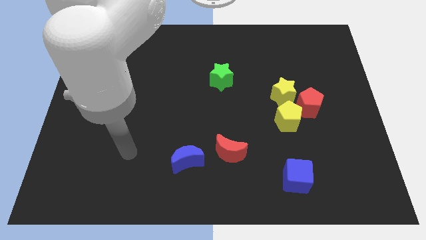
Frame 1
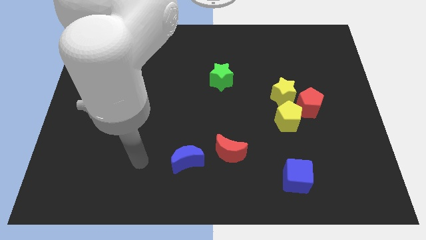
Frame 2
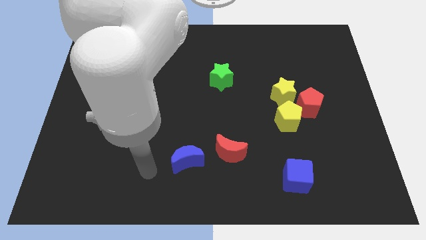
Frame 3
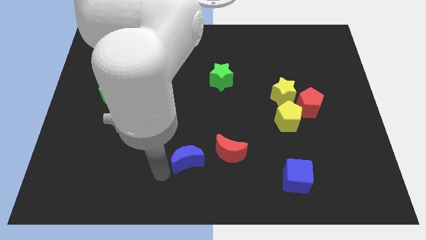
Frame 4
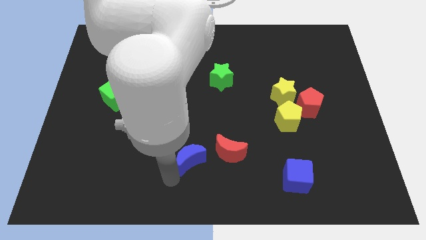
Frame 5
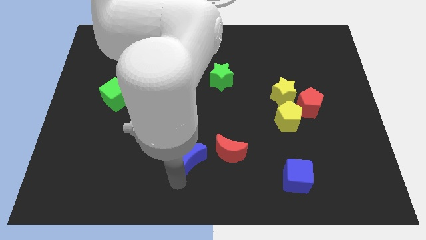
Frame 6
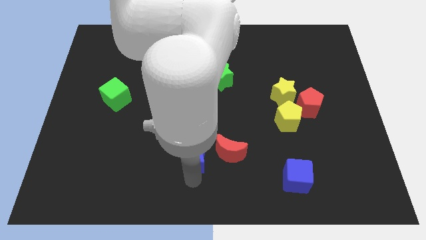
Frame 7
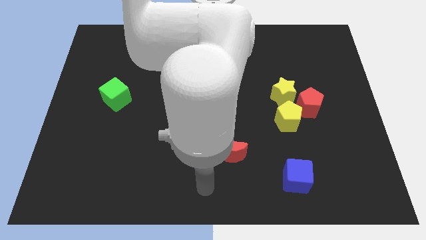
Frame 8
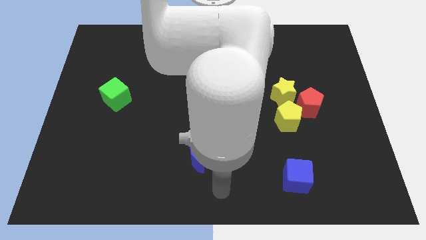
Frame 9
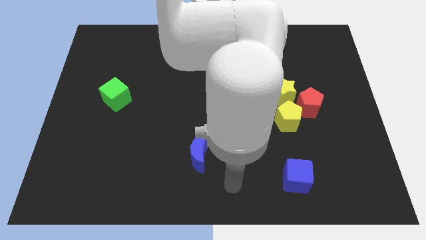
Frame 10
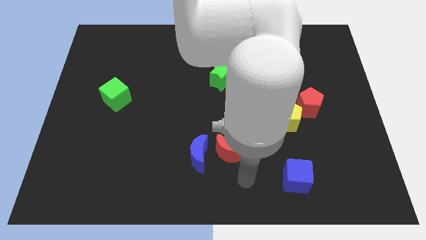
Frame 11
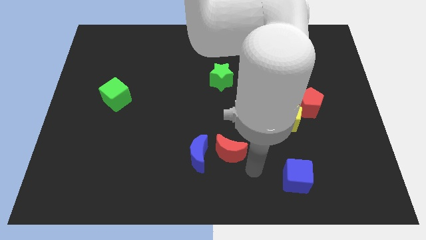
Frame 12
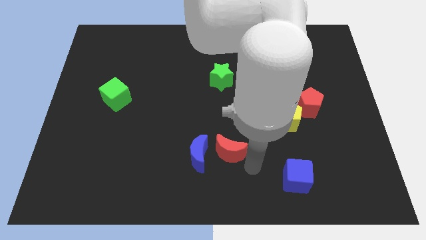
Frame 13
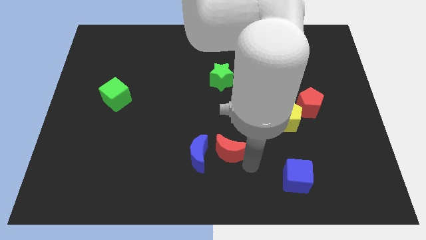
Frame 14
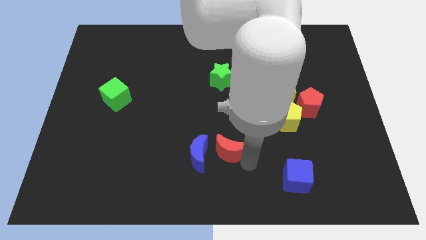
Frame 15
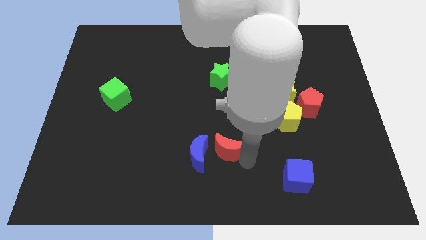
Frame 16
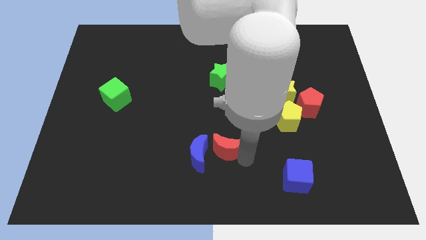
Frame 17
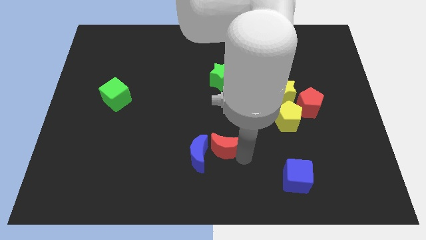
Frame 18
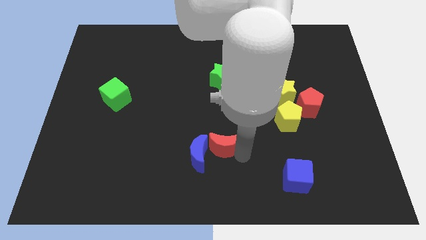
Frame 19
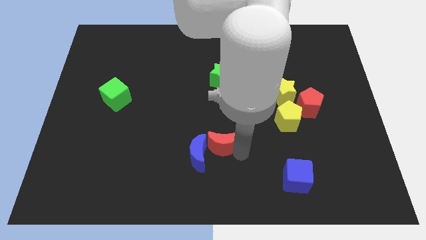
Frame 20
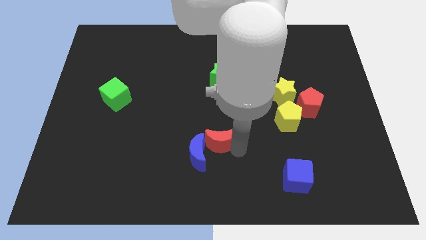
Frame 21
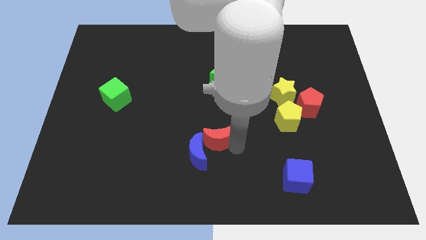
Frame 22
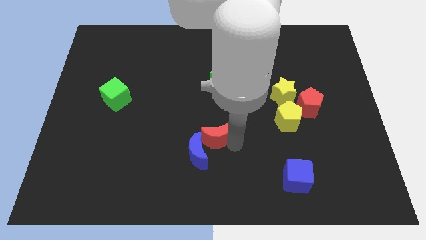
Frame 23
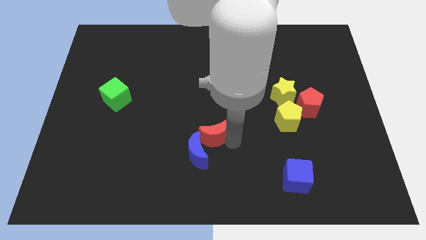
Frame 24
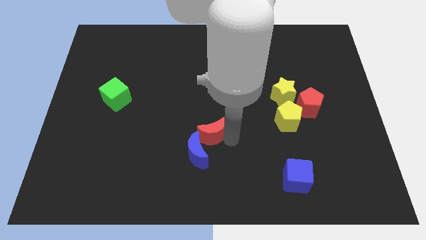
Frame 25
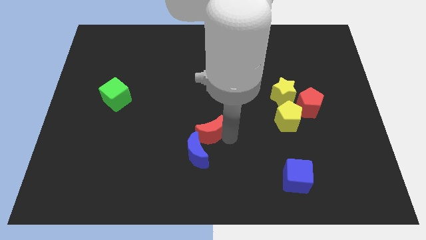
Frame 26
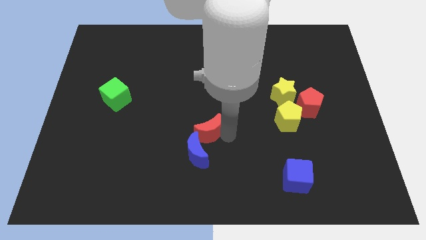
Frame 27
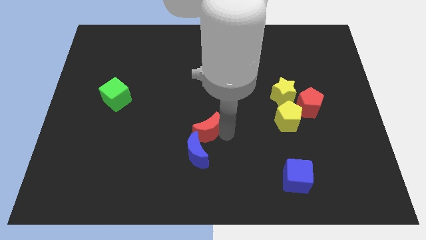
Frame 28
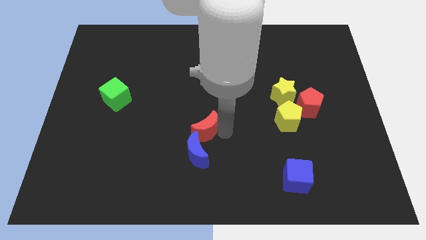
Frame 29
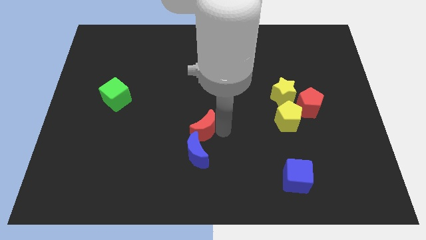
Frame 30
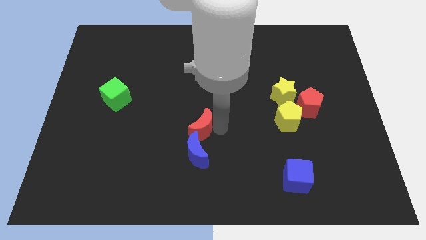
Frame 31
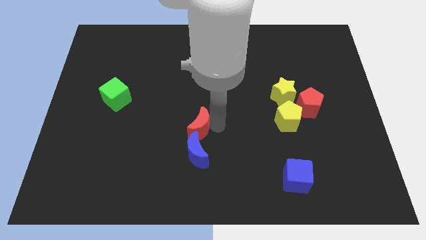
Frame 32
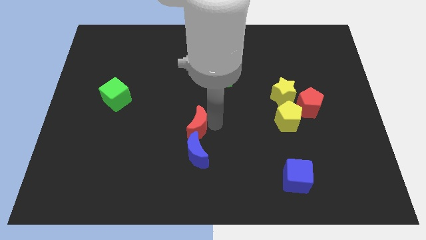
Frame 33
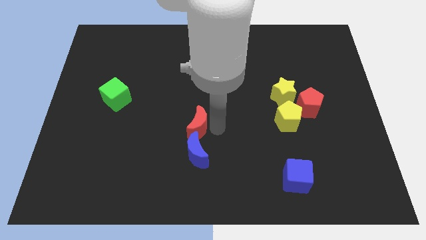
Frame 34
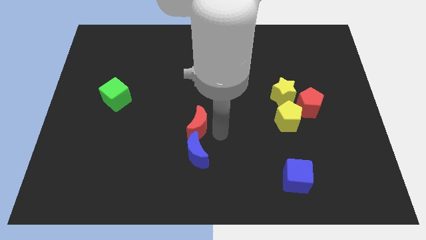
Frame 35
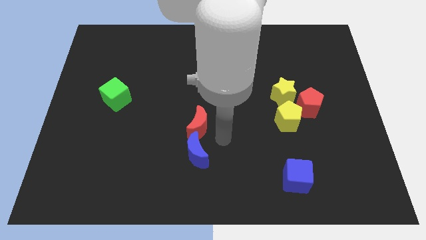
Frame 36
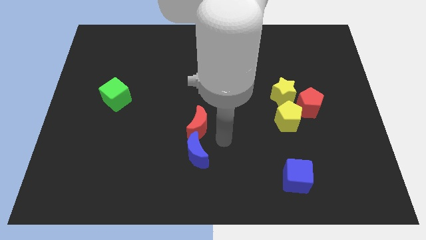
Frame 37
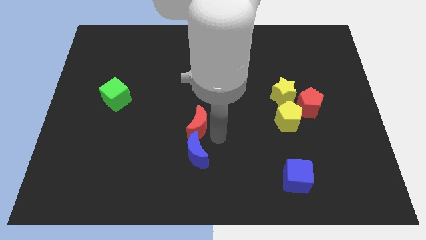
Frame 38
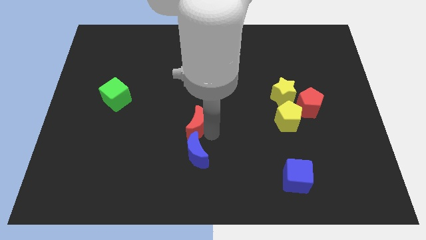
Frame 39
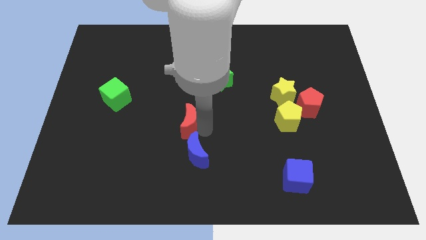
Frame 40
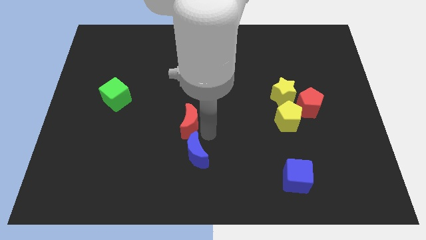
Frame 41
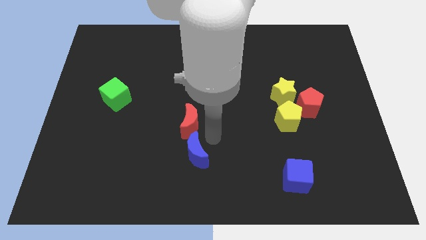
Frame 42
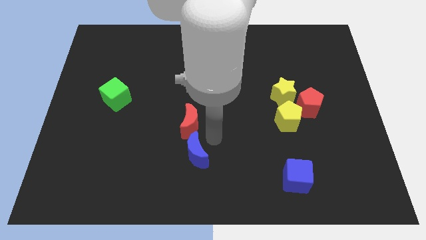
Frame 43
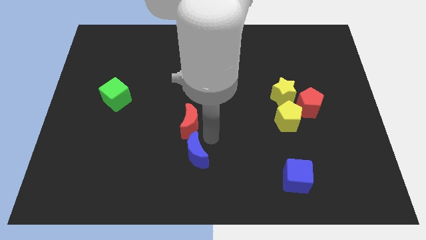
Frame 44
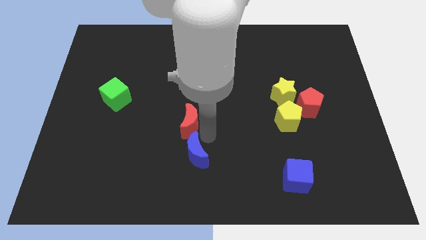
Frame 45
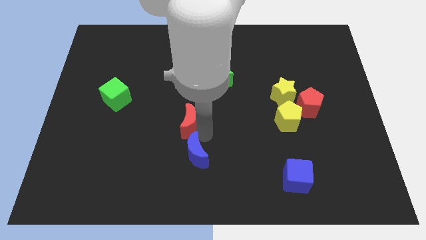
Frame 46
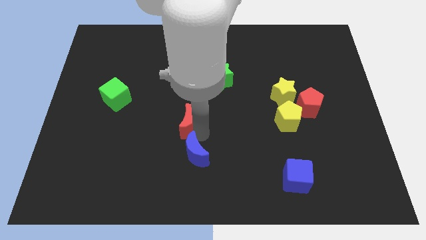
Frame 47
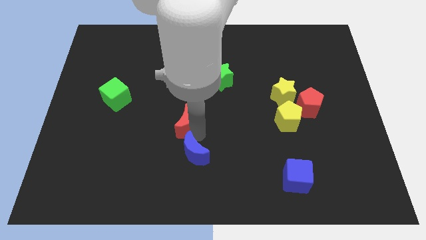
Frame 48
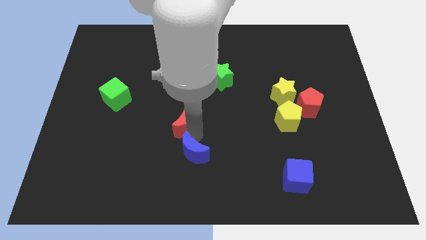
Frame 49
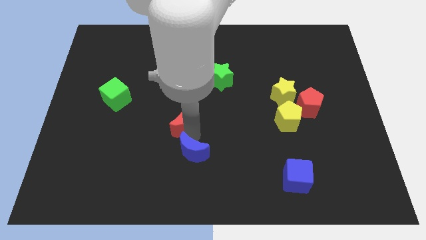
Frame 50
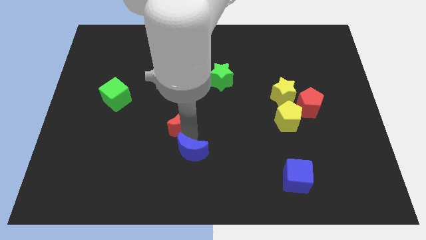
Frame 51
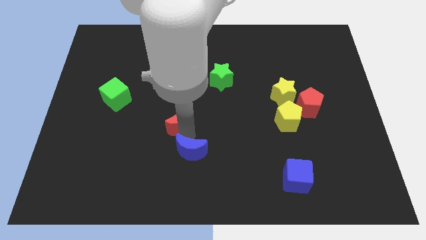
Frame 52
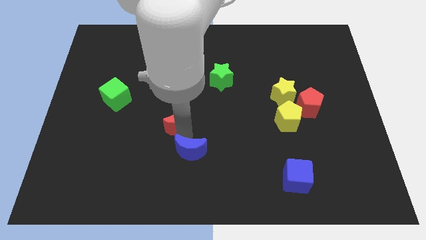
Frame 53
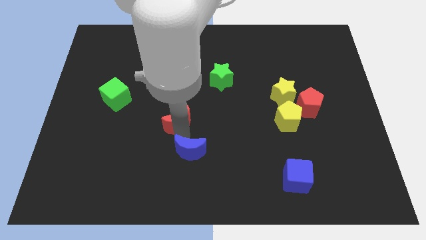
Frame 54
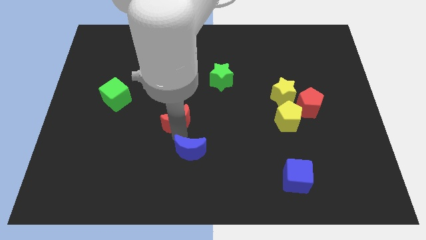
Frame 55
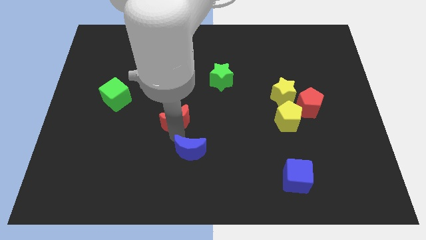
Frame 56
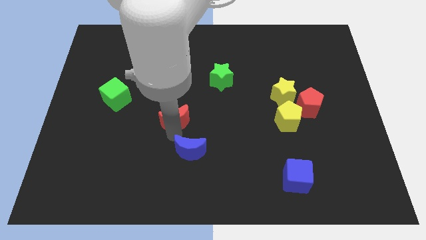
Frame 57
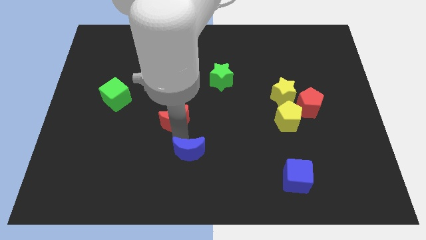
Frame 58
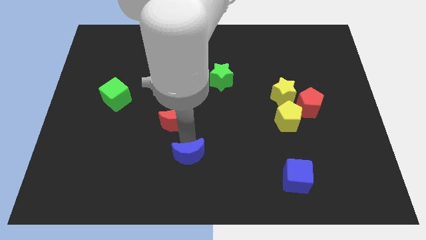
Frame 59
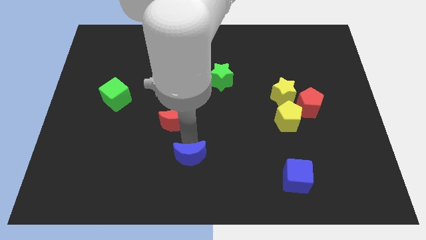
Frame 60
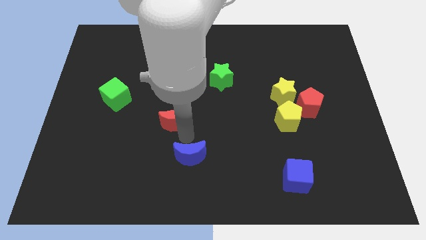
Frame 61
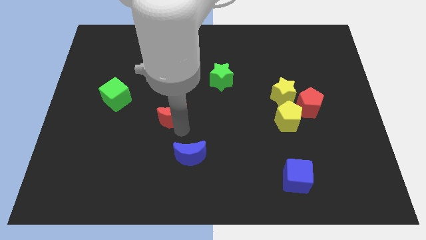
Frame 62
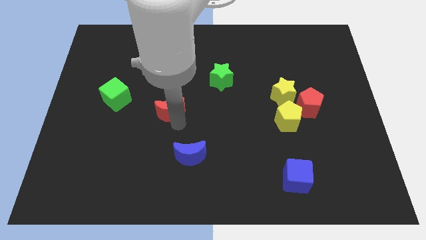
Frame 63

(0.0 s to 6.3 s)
move the red moon to the right of the green cube

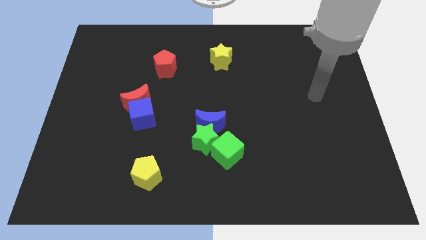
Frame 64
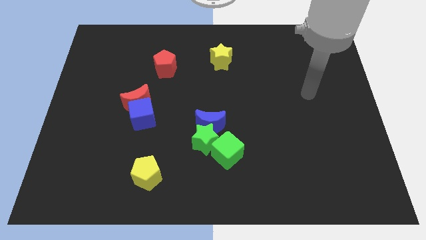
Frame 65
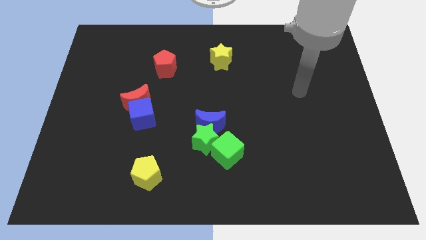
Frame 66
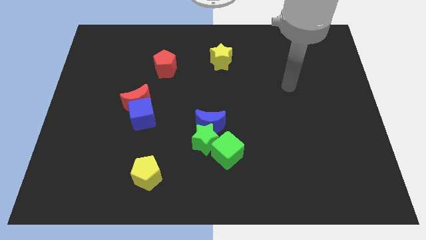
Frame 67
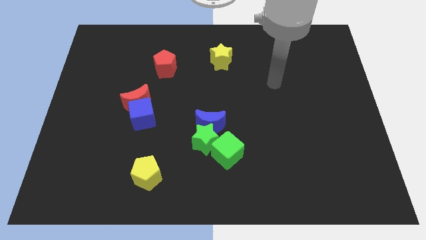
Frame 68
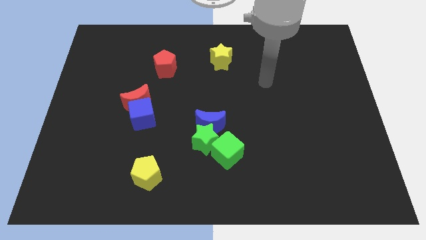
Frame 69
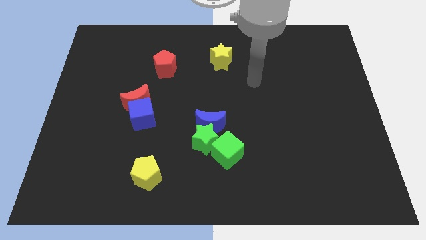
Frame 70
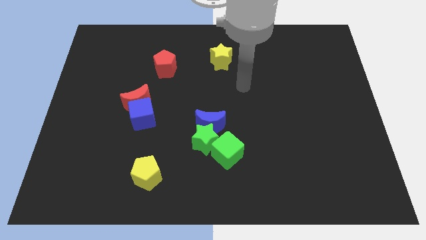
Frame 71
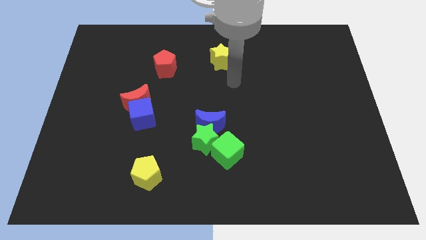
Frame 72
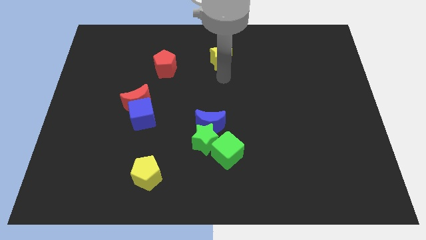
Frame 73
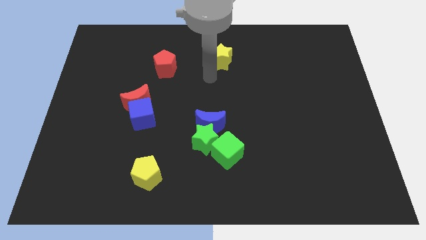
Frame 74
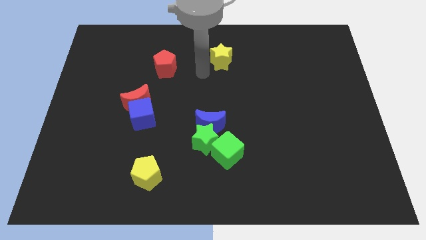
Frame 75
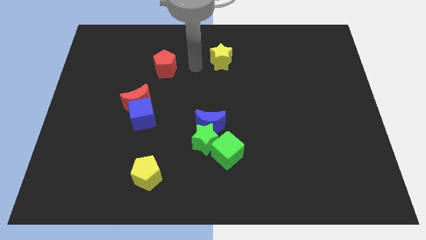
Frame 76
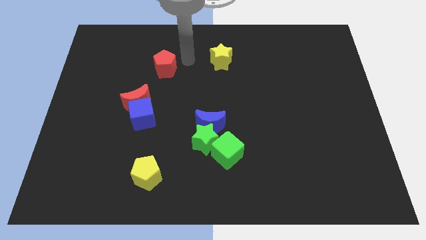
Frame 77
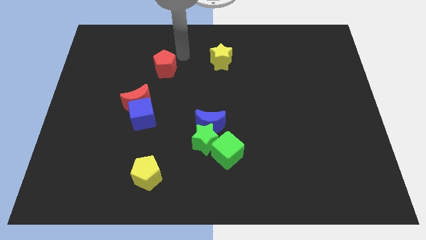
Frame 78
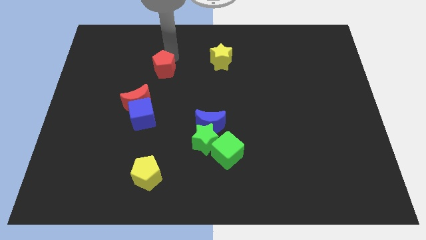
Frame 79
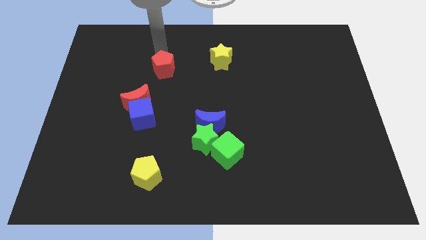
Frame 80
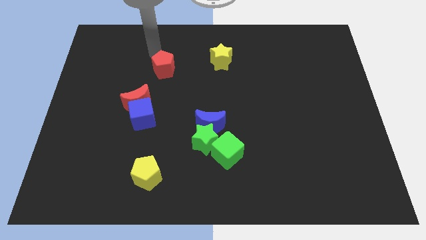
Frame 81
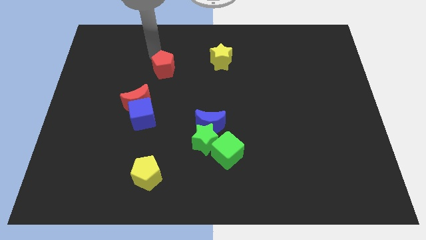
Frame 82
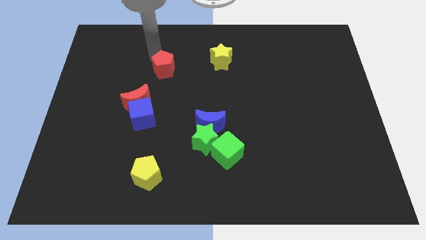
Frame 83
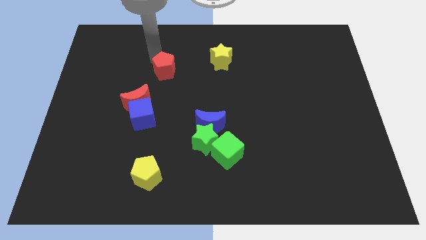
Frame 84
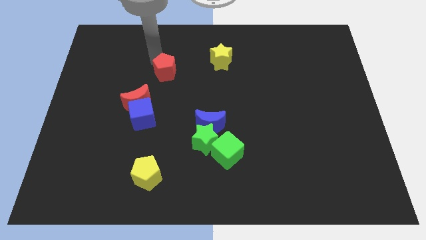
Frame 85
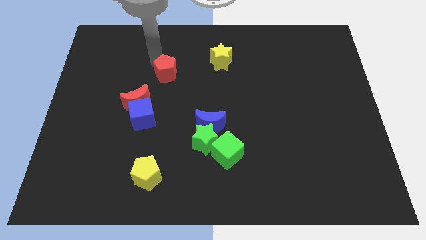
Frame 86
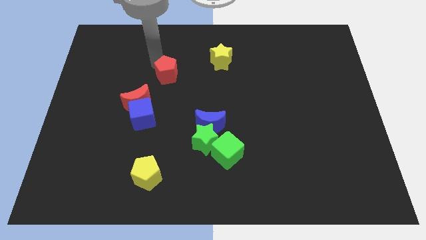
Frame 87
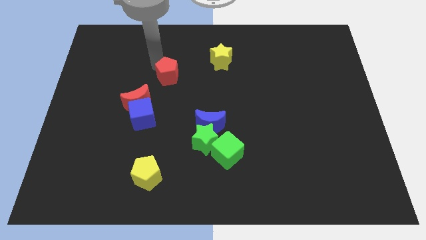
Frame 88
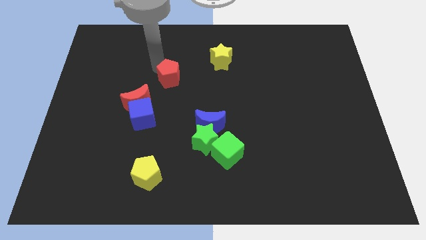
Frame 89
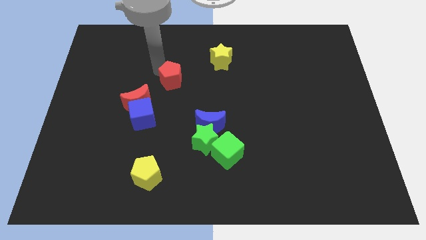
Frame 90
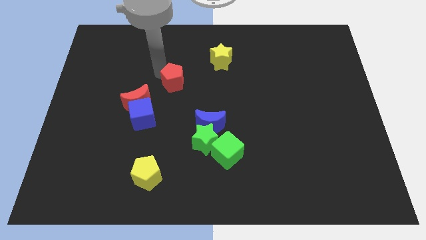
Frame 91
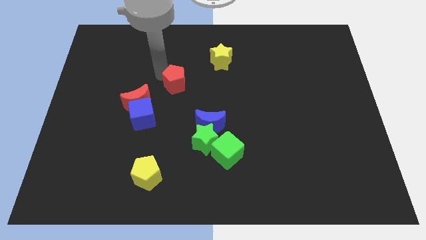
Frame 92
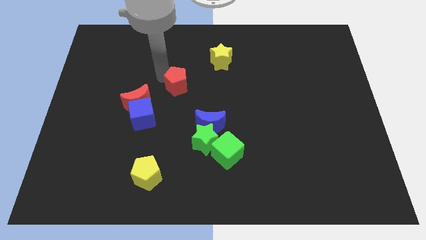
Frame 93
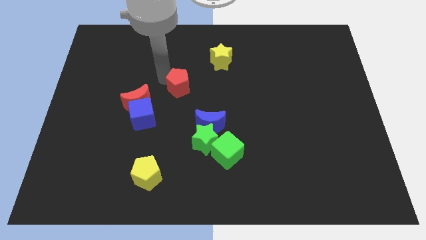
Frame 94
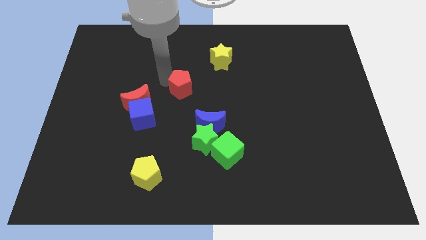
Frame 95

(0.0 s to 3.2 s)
push the red pentagon just right of the red moon
